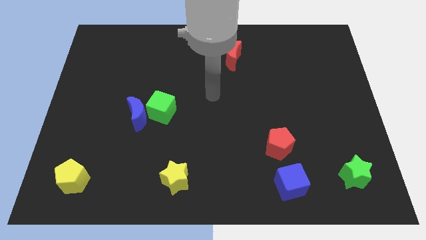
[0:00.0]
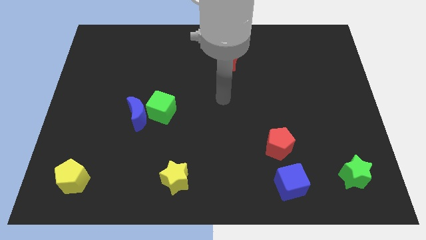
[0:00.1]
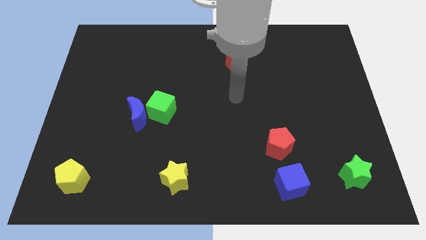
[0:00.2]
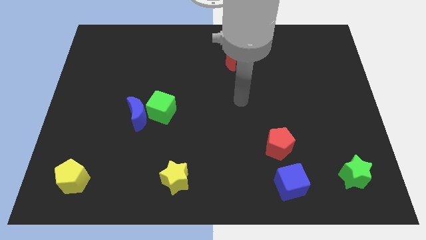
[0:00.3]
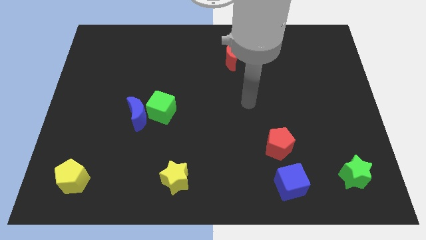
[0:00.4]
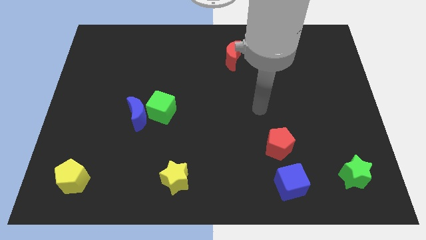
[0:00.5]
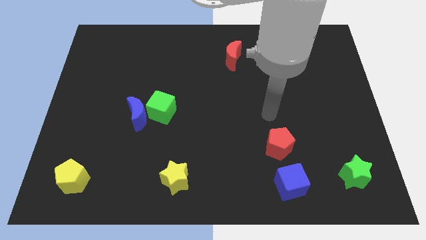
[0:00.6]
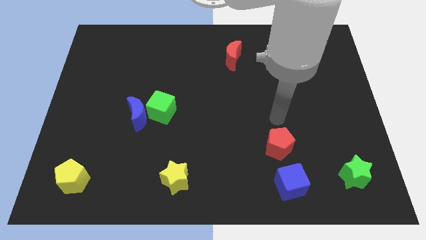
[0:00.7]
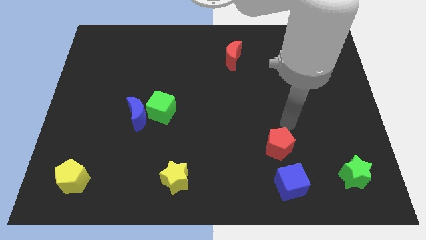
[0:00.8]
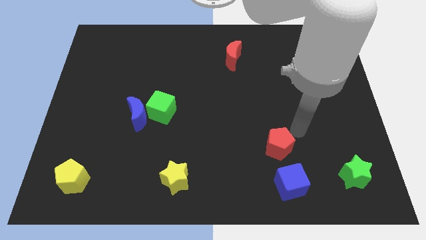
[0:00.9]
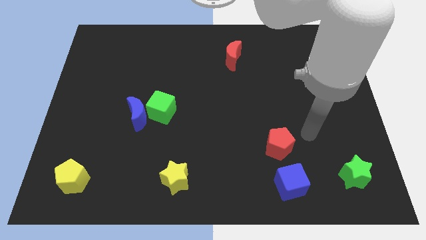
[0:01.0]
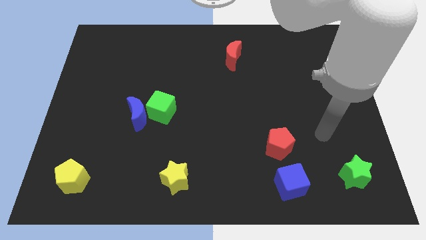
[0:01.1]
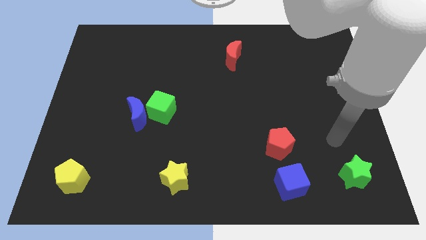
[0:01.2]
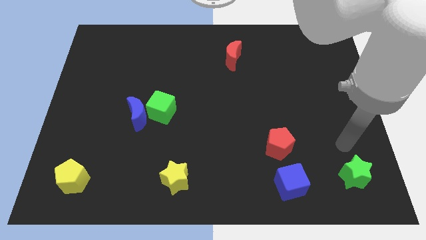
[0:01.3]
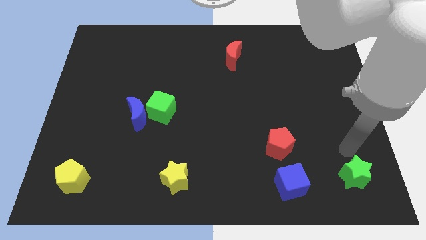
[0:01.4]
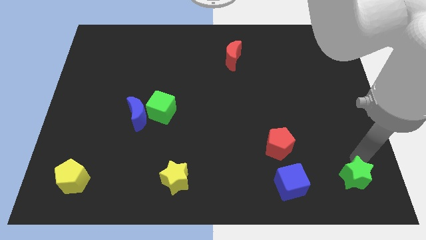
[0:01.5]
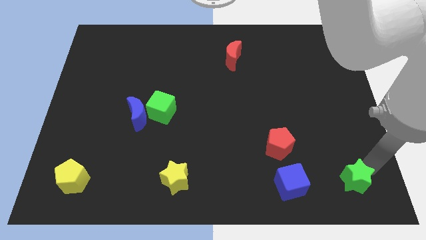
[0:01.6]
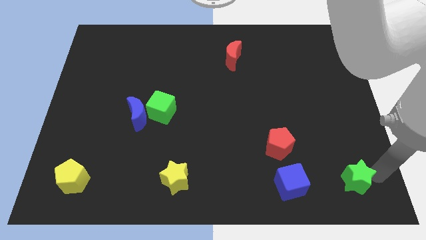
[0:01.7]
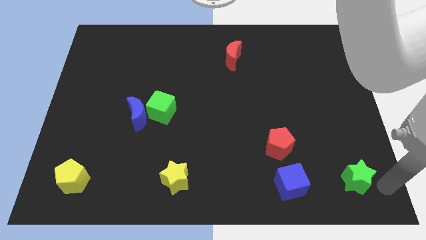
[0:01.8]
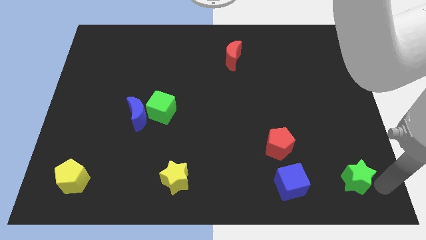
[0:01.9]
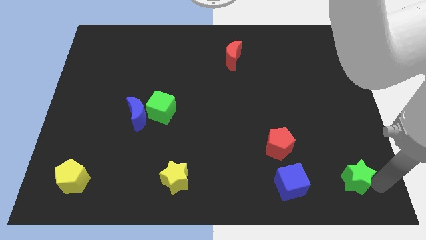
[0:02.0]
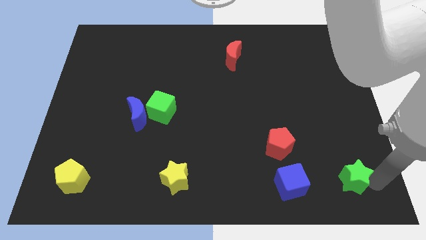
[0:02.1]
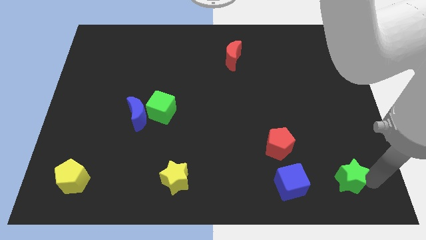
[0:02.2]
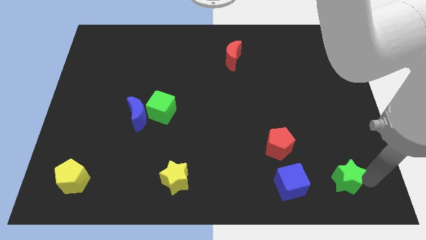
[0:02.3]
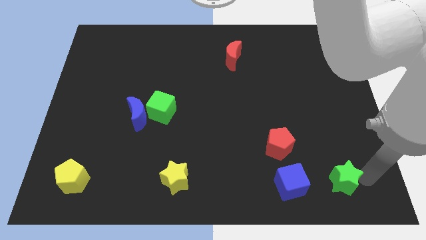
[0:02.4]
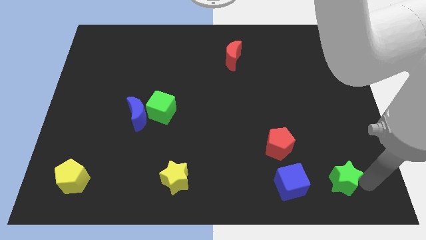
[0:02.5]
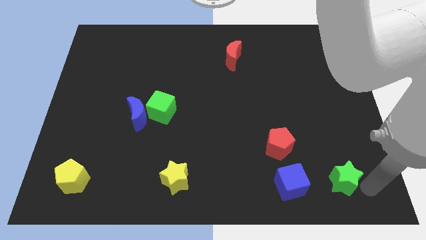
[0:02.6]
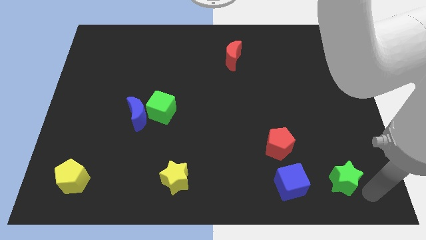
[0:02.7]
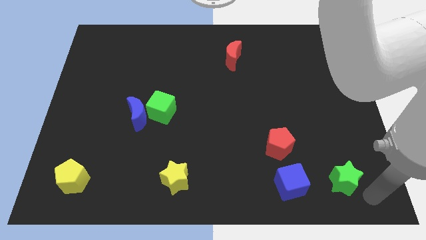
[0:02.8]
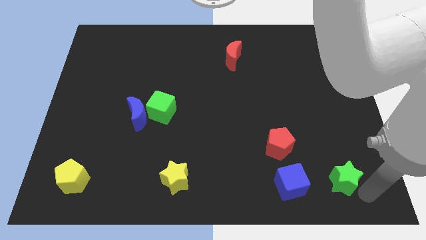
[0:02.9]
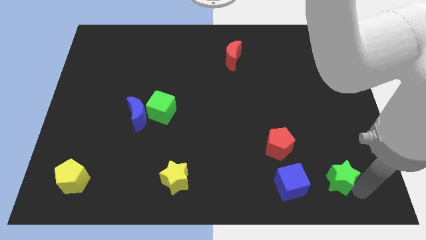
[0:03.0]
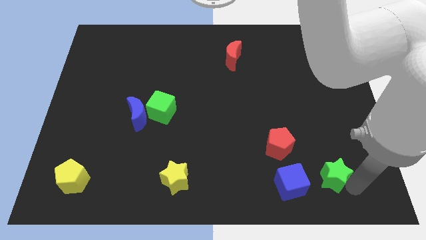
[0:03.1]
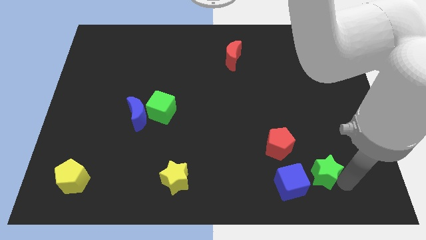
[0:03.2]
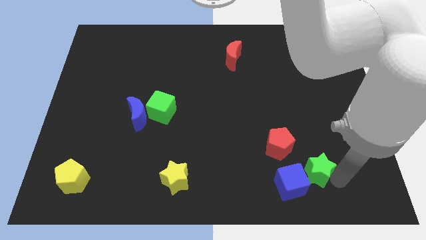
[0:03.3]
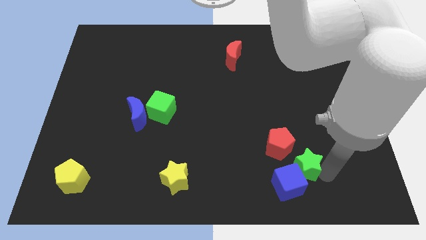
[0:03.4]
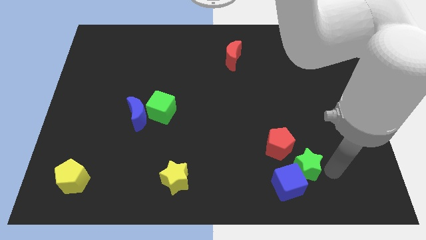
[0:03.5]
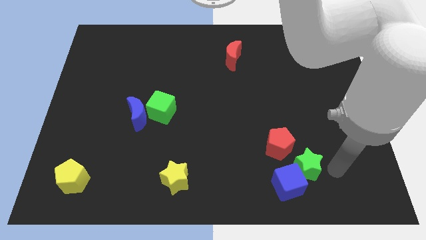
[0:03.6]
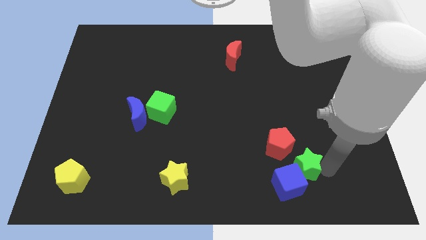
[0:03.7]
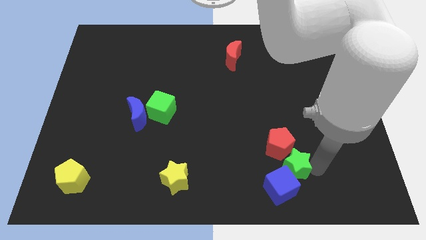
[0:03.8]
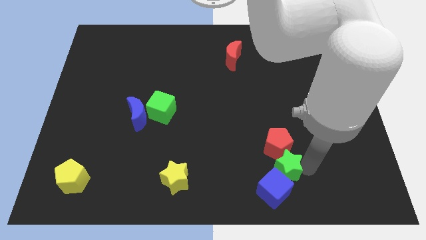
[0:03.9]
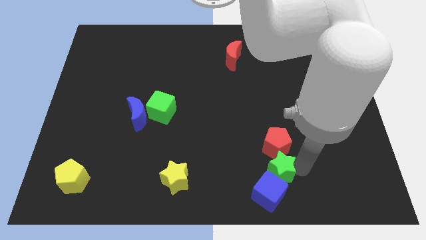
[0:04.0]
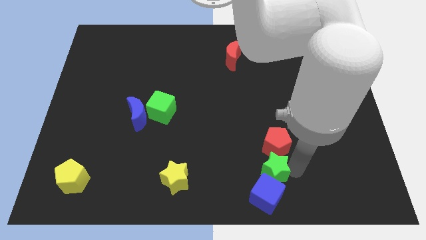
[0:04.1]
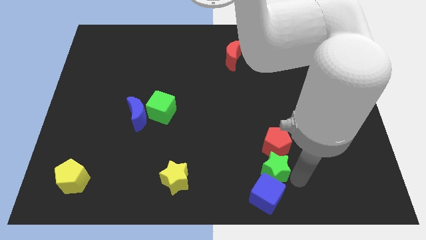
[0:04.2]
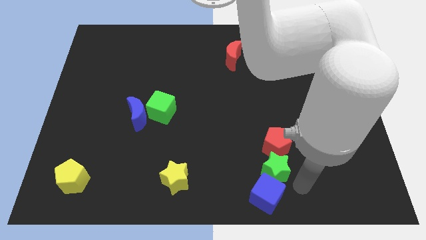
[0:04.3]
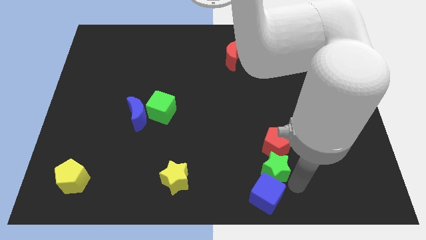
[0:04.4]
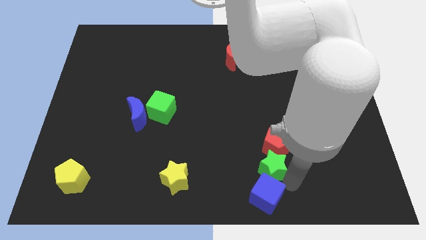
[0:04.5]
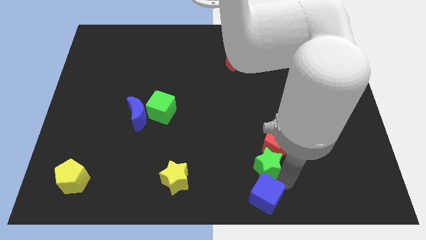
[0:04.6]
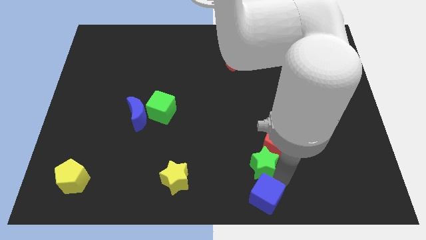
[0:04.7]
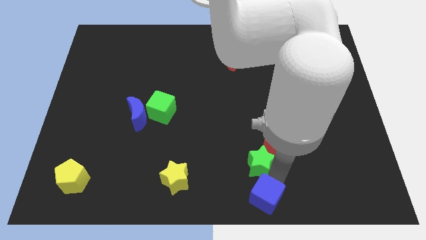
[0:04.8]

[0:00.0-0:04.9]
put the green star just left of the red pentagon

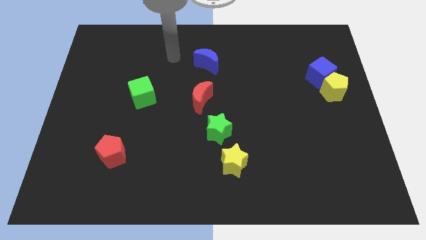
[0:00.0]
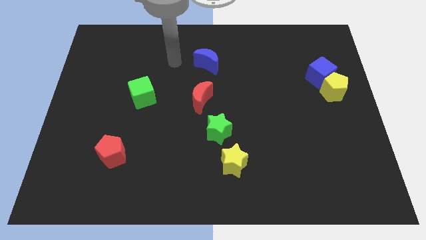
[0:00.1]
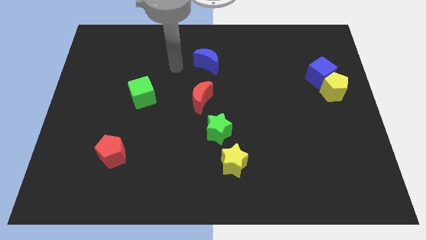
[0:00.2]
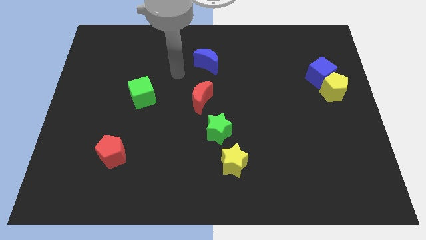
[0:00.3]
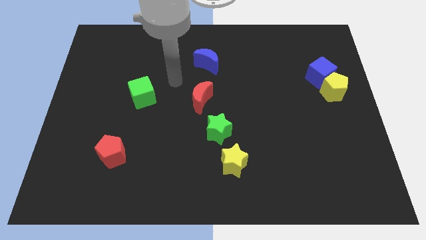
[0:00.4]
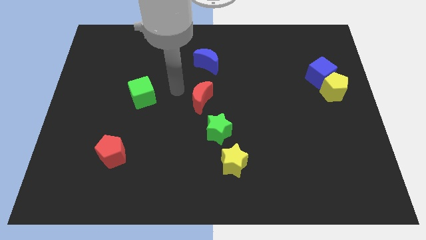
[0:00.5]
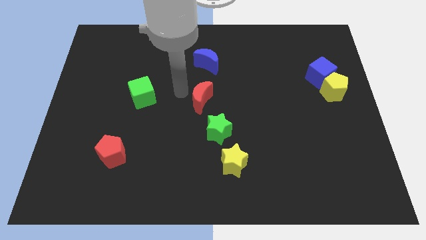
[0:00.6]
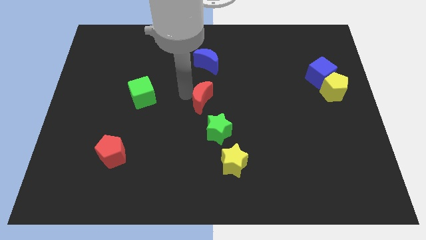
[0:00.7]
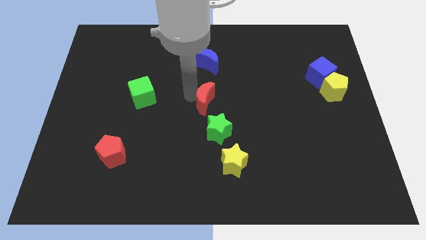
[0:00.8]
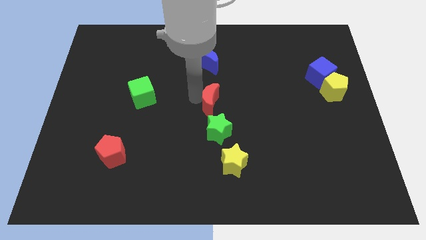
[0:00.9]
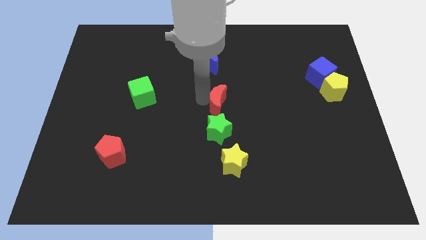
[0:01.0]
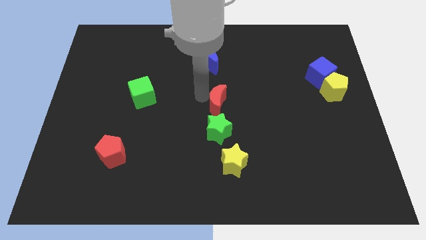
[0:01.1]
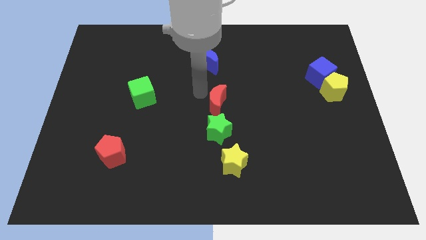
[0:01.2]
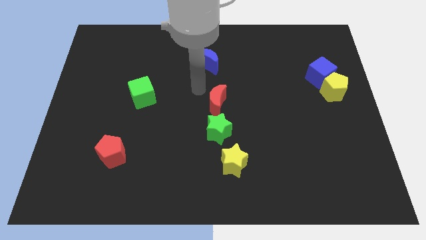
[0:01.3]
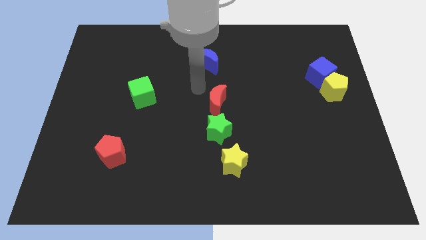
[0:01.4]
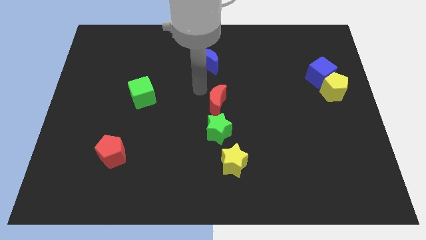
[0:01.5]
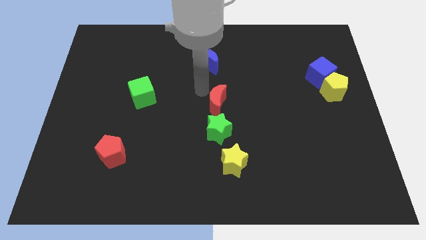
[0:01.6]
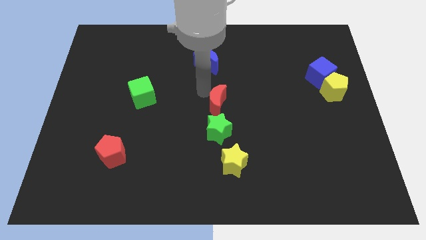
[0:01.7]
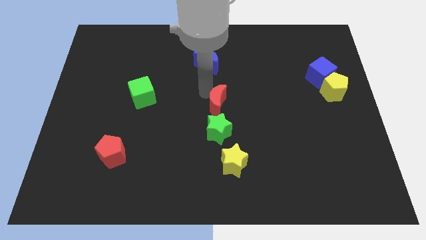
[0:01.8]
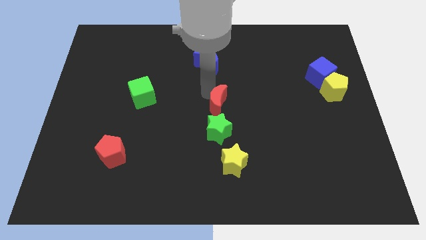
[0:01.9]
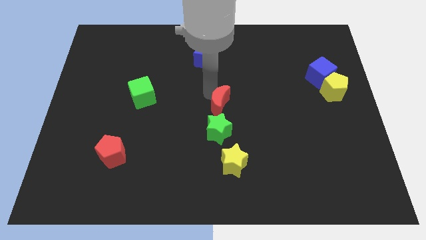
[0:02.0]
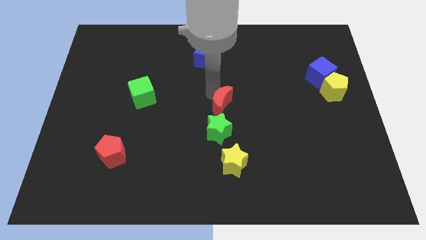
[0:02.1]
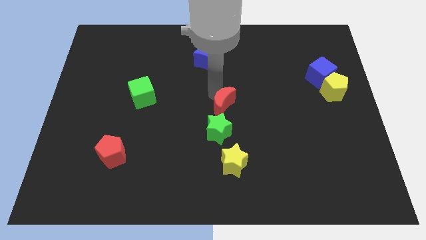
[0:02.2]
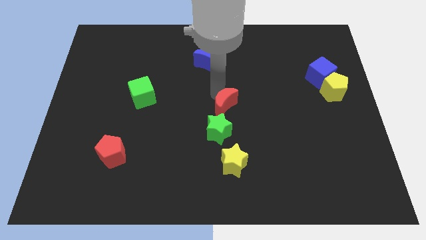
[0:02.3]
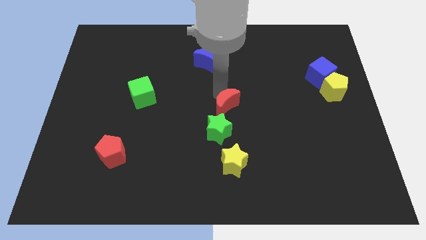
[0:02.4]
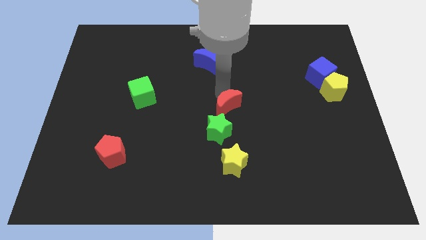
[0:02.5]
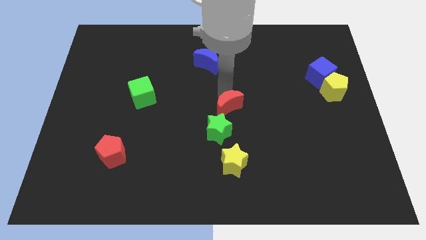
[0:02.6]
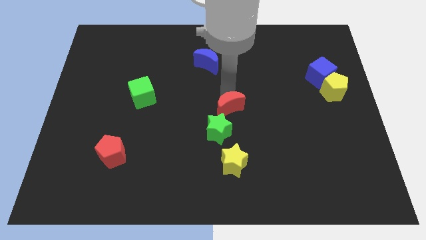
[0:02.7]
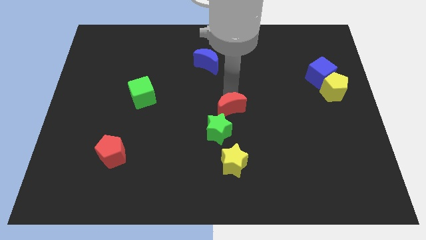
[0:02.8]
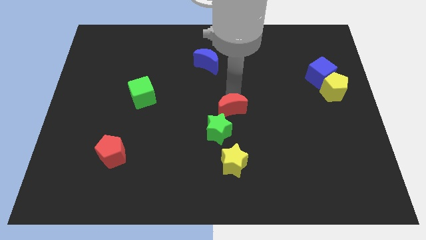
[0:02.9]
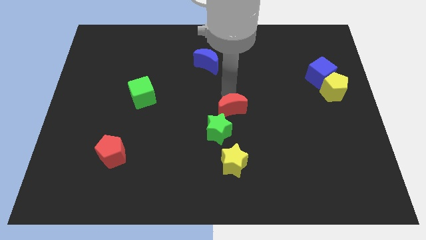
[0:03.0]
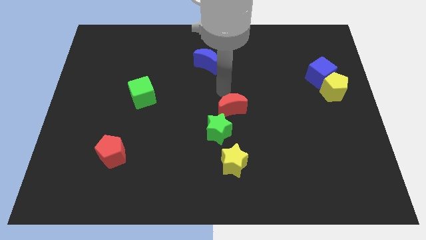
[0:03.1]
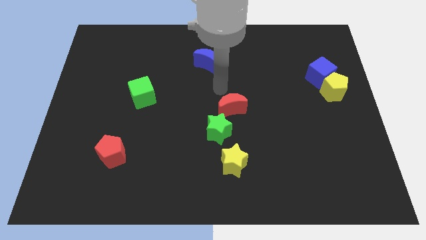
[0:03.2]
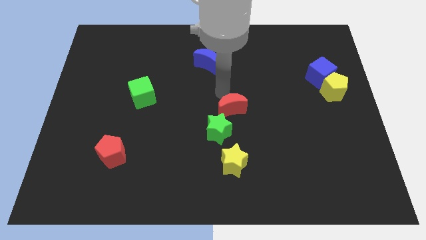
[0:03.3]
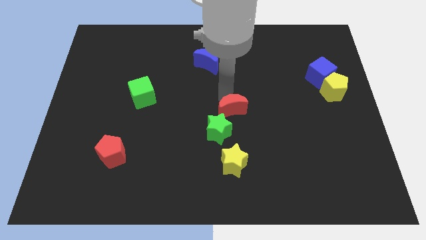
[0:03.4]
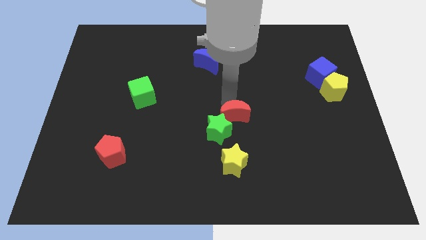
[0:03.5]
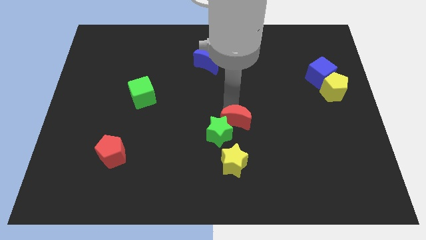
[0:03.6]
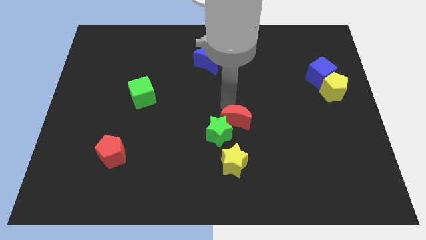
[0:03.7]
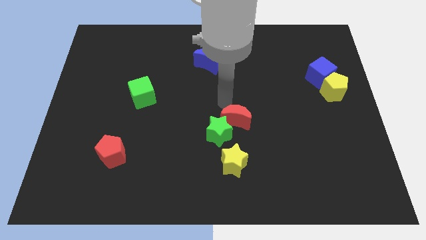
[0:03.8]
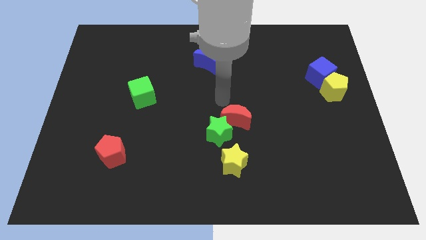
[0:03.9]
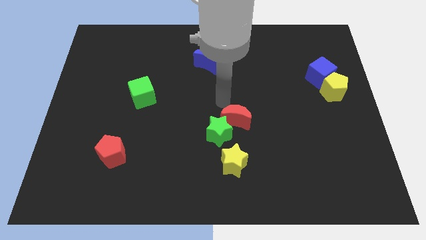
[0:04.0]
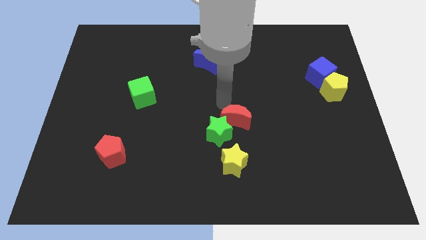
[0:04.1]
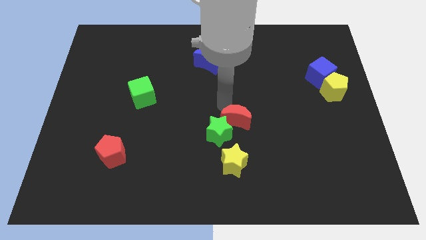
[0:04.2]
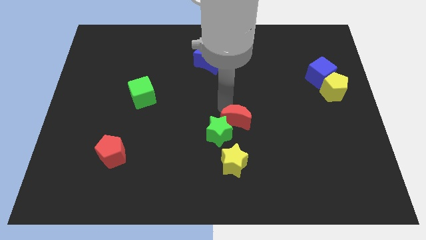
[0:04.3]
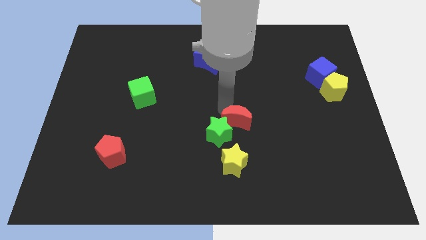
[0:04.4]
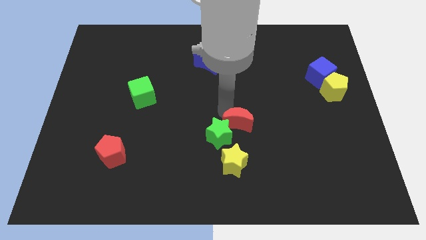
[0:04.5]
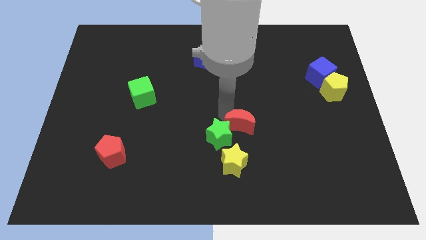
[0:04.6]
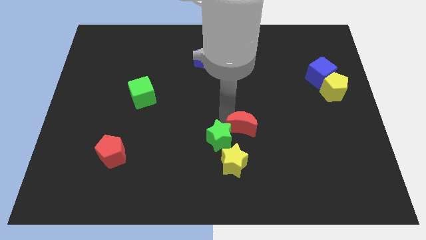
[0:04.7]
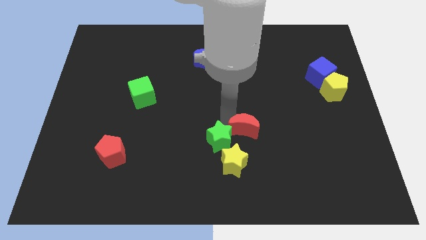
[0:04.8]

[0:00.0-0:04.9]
move the red moon diagonally up and to the right of the yellow star
